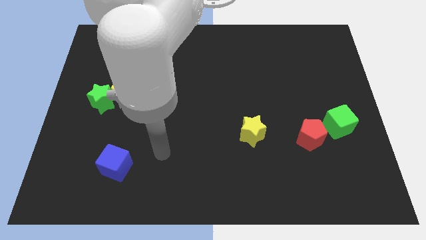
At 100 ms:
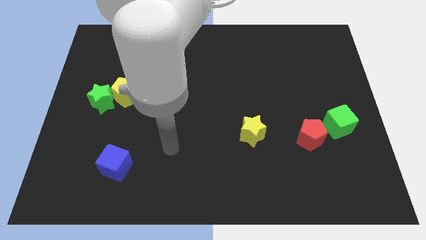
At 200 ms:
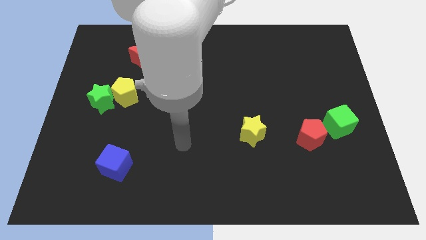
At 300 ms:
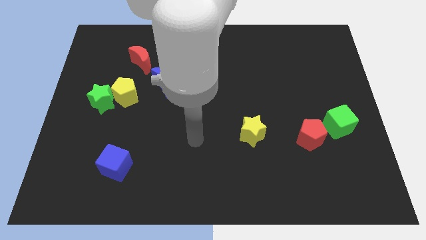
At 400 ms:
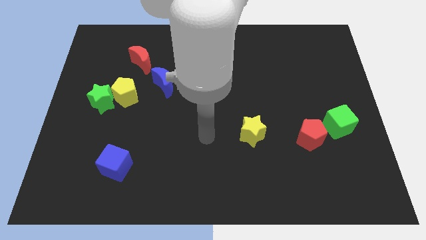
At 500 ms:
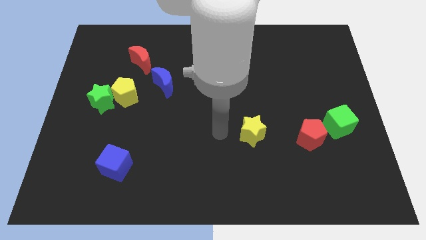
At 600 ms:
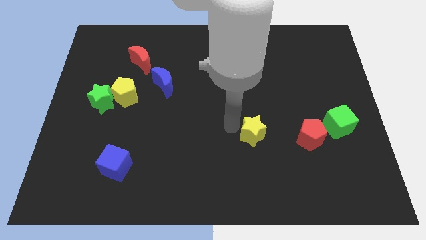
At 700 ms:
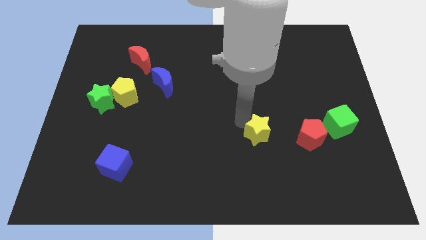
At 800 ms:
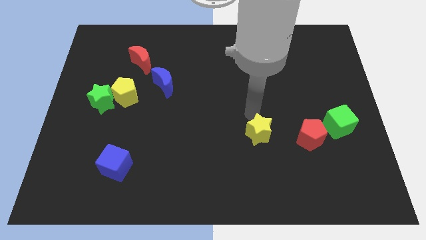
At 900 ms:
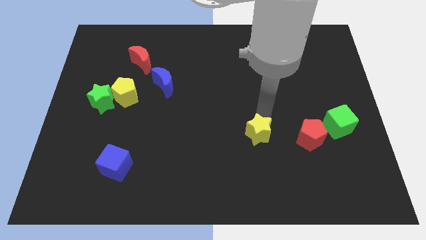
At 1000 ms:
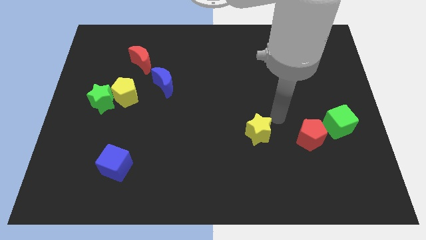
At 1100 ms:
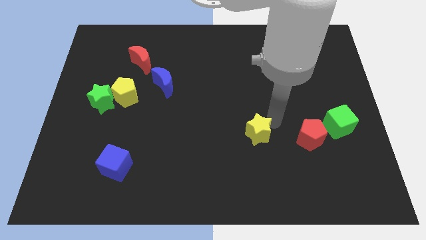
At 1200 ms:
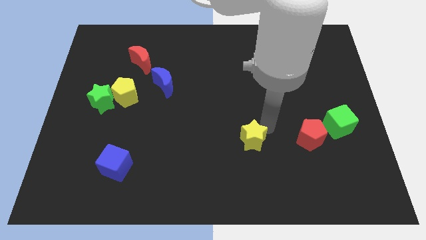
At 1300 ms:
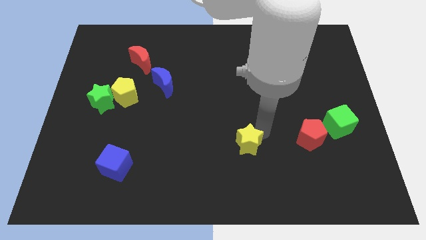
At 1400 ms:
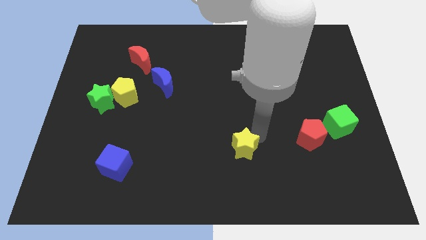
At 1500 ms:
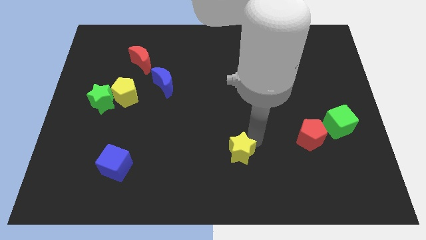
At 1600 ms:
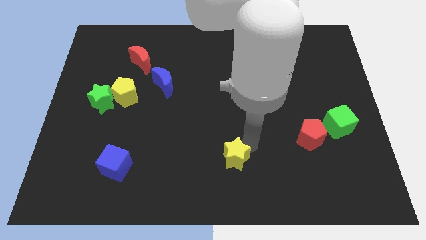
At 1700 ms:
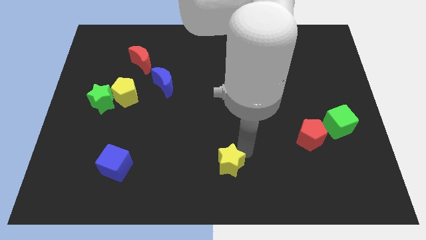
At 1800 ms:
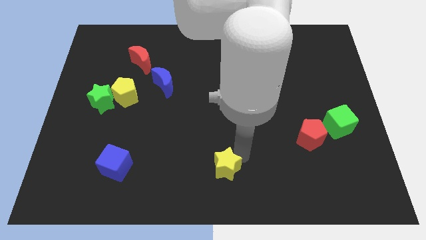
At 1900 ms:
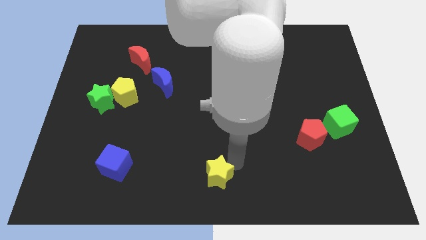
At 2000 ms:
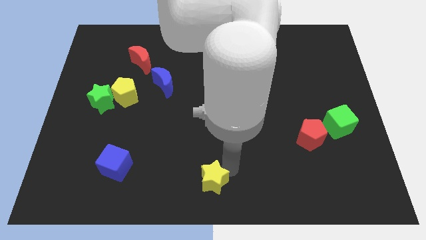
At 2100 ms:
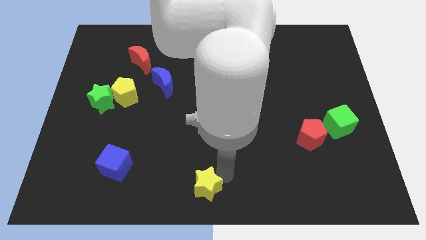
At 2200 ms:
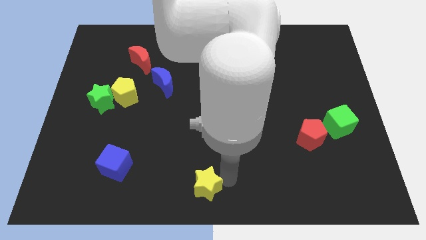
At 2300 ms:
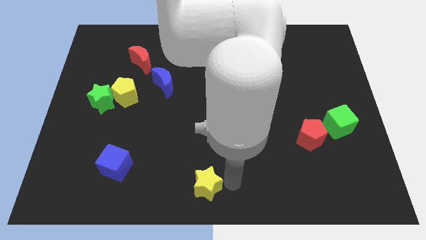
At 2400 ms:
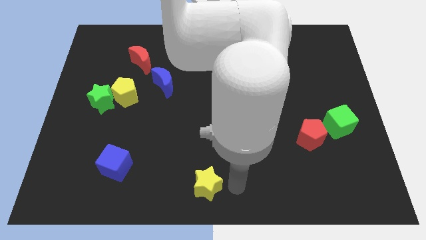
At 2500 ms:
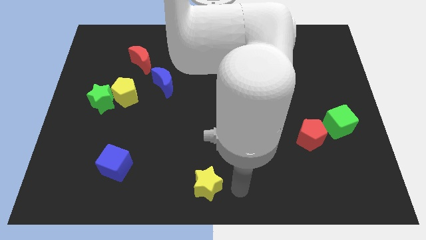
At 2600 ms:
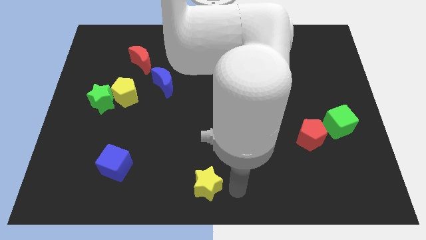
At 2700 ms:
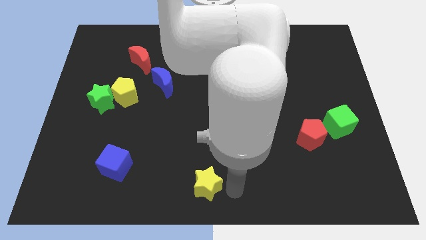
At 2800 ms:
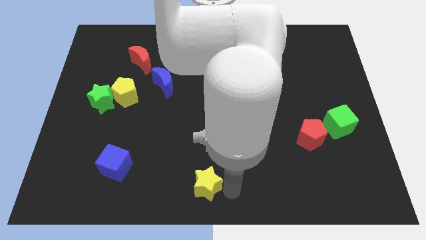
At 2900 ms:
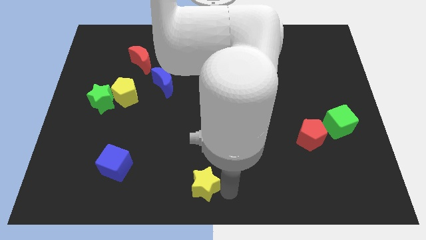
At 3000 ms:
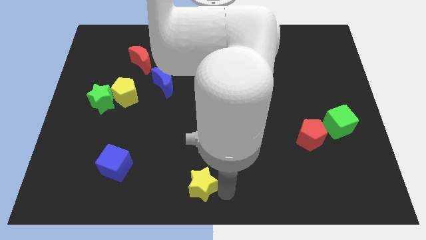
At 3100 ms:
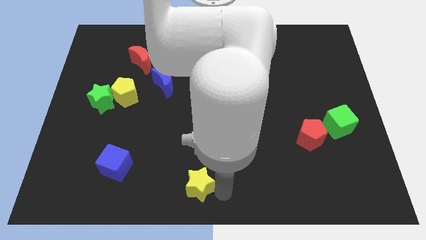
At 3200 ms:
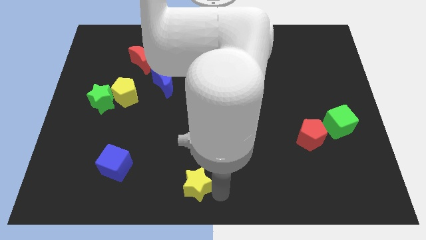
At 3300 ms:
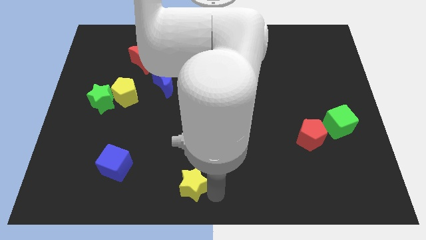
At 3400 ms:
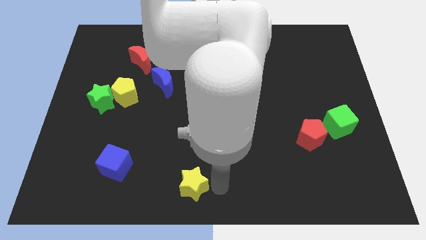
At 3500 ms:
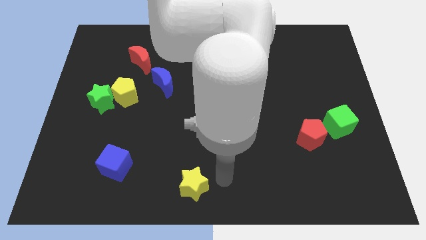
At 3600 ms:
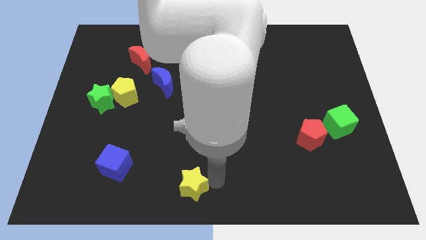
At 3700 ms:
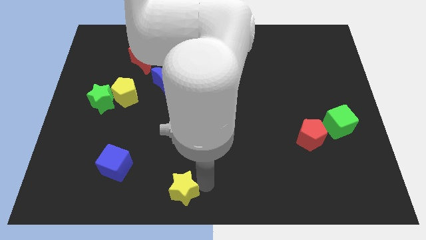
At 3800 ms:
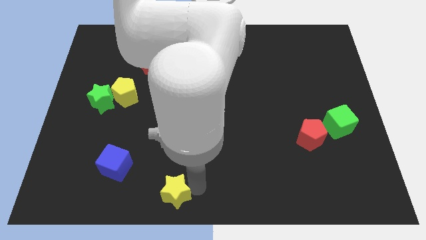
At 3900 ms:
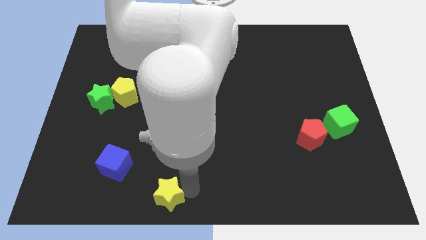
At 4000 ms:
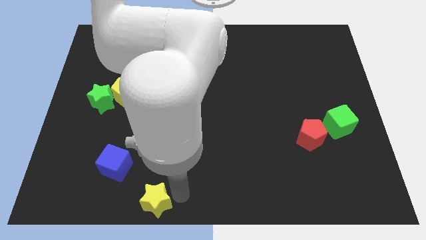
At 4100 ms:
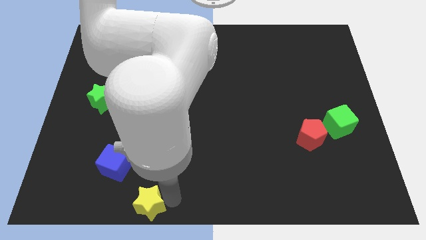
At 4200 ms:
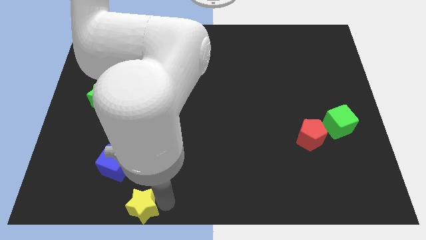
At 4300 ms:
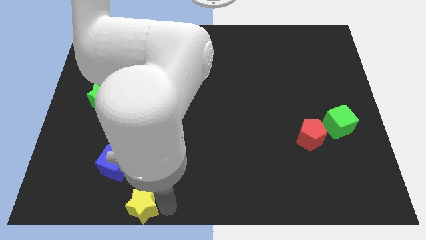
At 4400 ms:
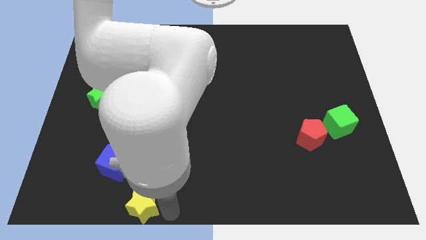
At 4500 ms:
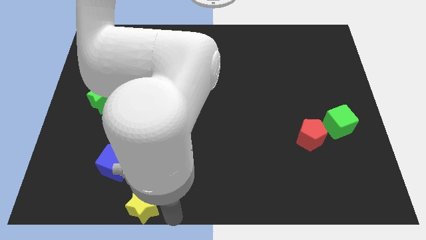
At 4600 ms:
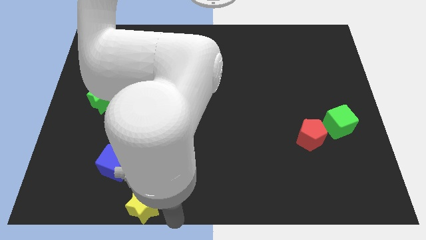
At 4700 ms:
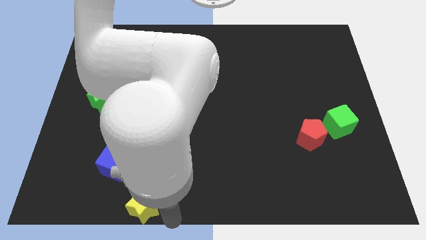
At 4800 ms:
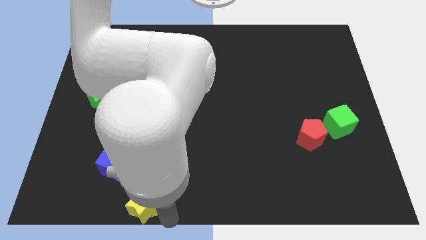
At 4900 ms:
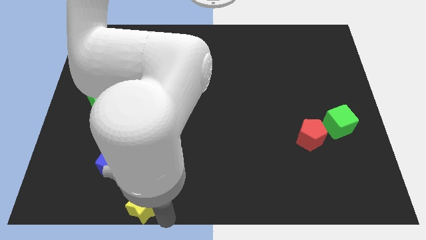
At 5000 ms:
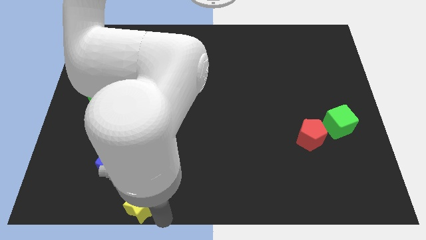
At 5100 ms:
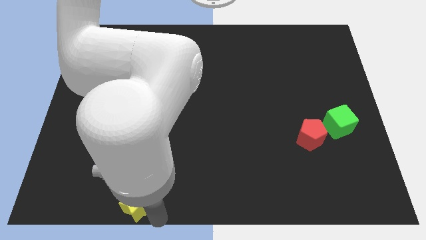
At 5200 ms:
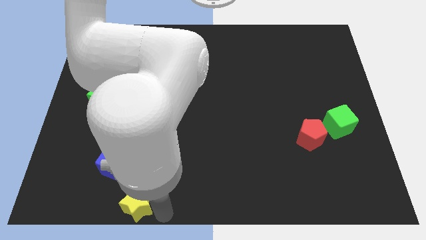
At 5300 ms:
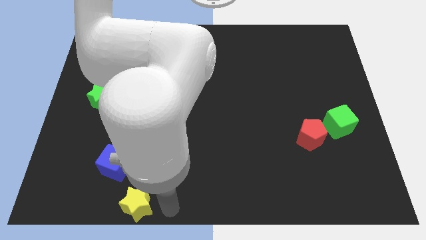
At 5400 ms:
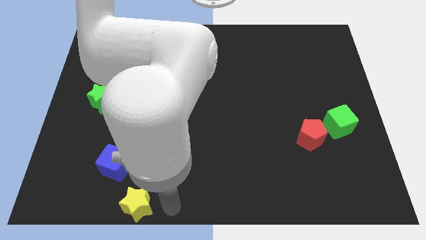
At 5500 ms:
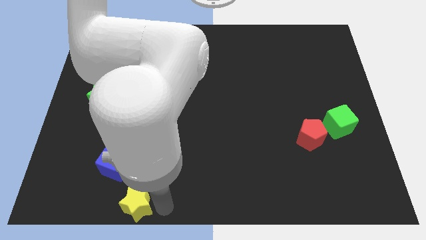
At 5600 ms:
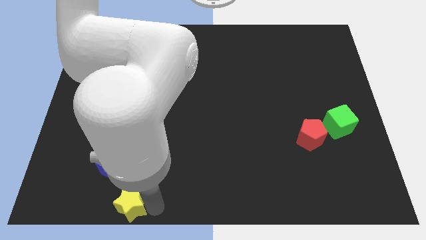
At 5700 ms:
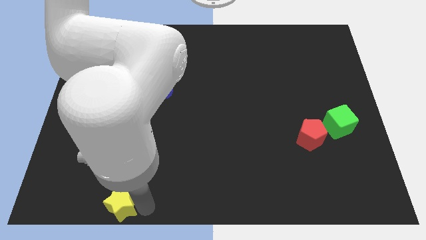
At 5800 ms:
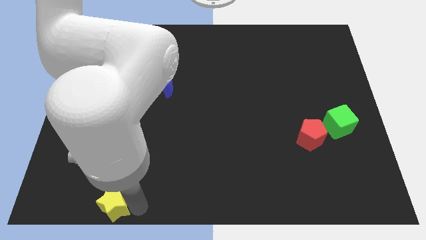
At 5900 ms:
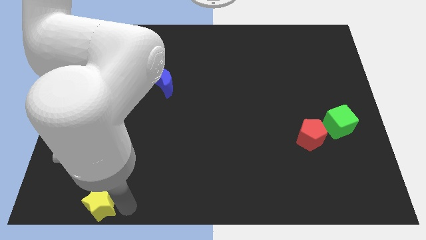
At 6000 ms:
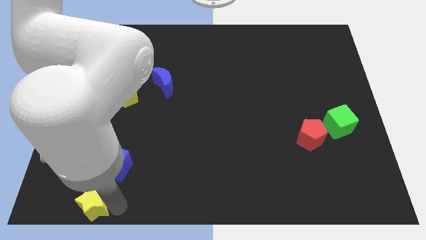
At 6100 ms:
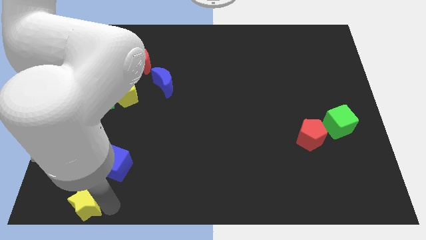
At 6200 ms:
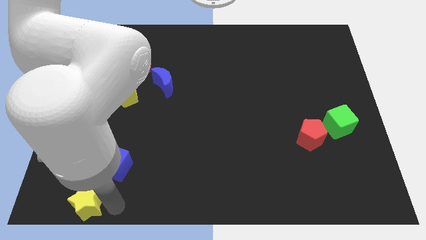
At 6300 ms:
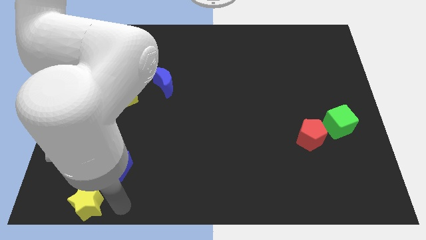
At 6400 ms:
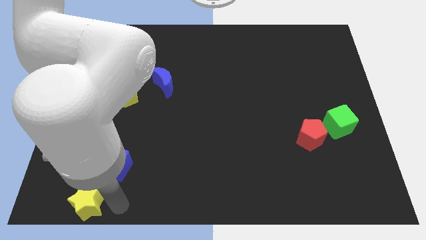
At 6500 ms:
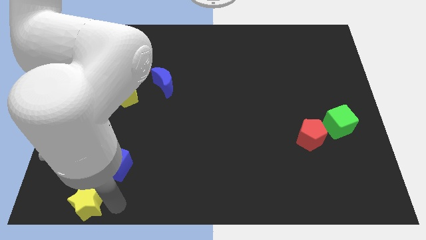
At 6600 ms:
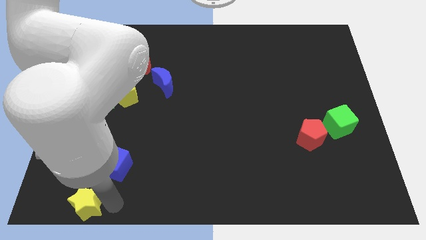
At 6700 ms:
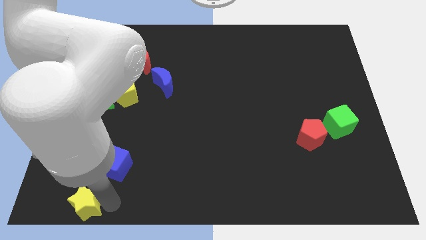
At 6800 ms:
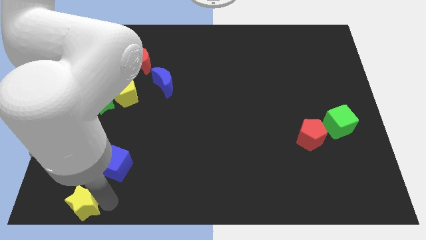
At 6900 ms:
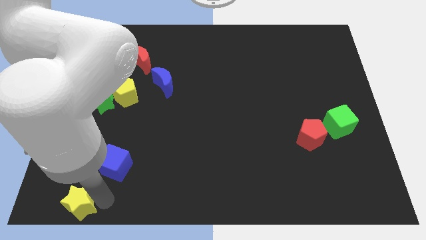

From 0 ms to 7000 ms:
move the yellow star to the bottom left of the board
